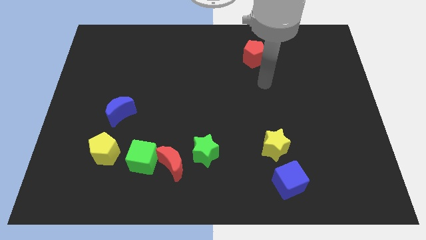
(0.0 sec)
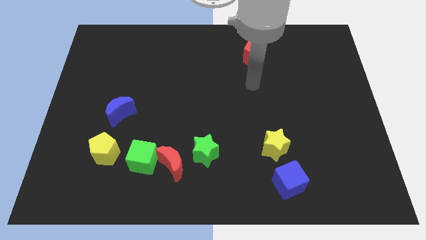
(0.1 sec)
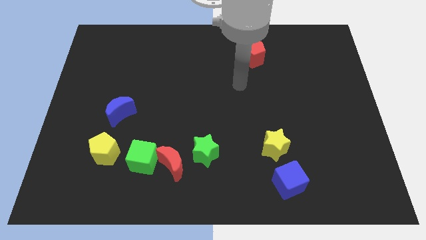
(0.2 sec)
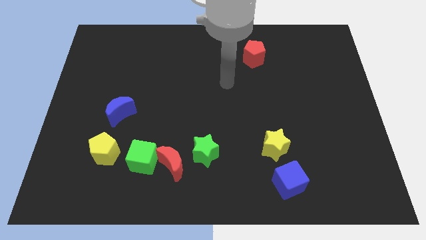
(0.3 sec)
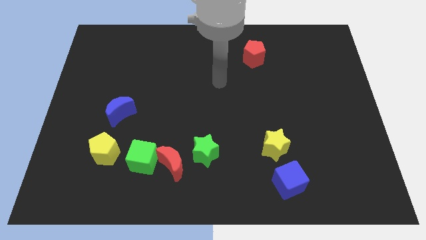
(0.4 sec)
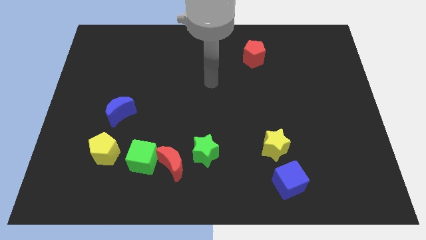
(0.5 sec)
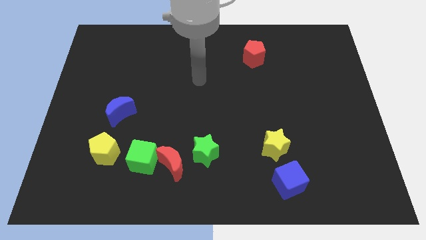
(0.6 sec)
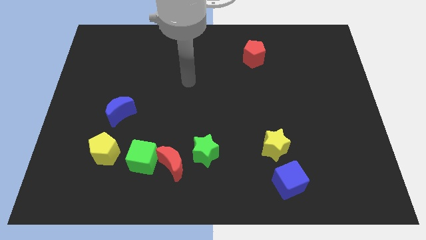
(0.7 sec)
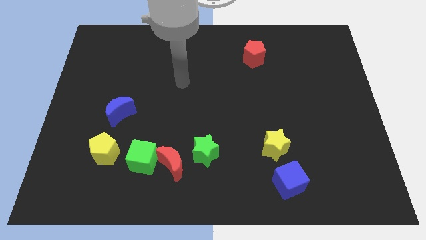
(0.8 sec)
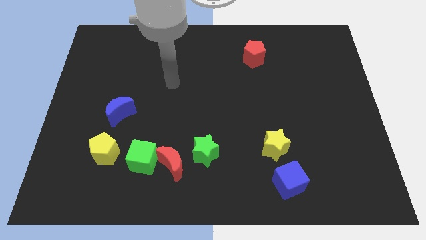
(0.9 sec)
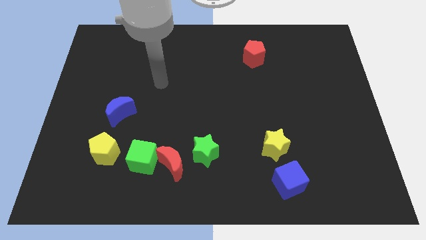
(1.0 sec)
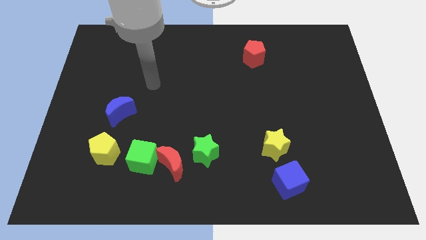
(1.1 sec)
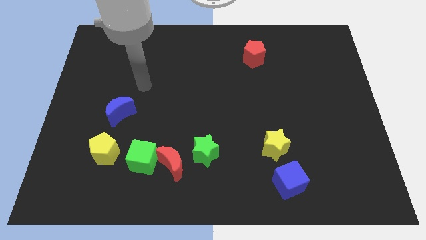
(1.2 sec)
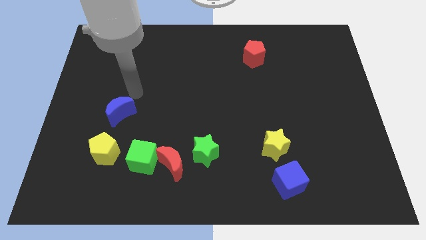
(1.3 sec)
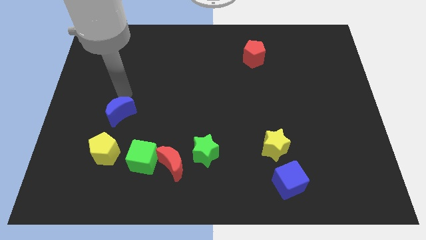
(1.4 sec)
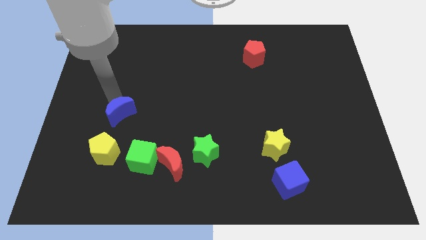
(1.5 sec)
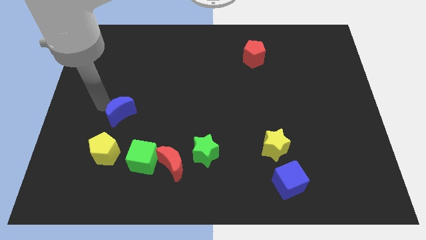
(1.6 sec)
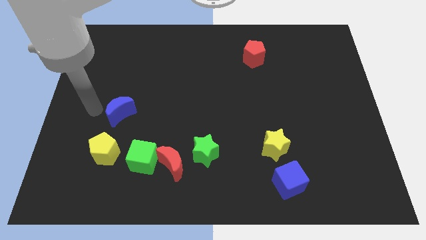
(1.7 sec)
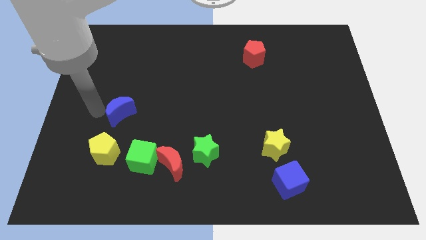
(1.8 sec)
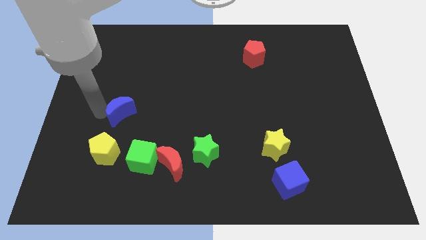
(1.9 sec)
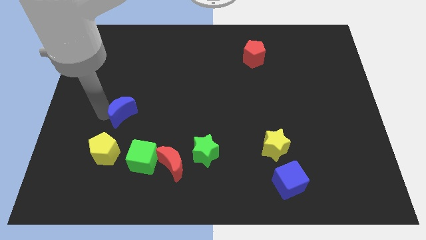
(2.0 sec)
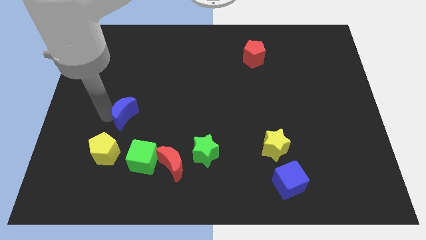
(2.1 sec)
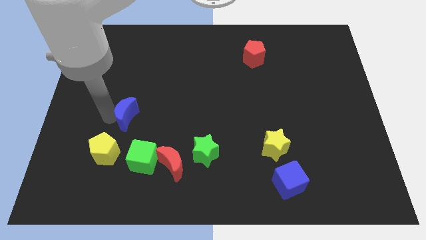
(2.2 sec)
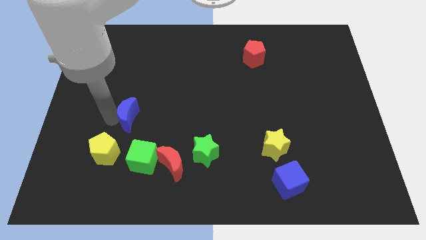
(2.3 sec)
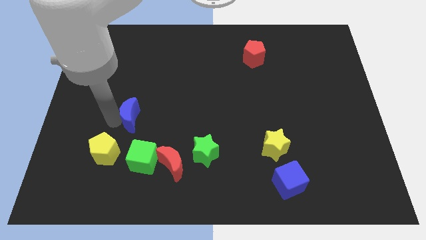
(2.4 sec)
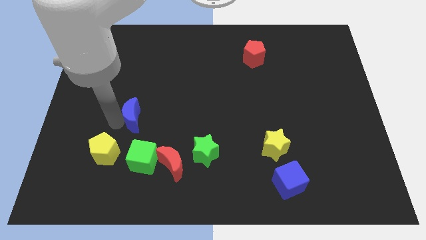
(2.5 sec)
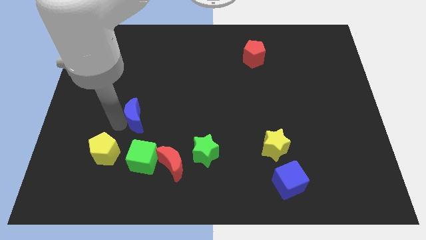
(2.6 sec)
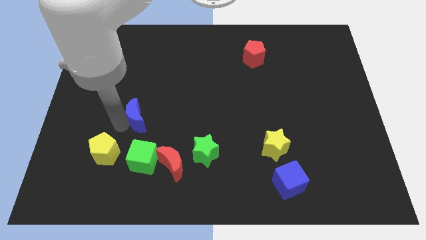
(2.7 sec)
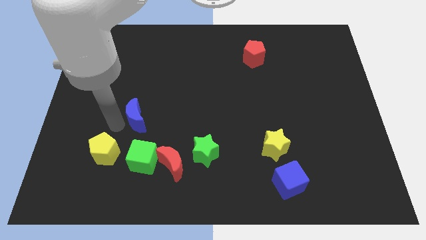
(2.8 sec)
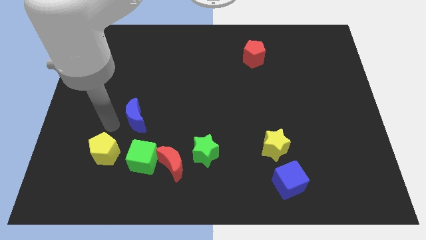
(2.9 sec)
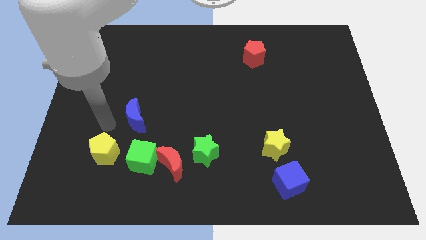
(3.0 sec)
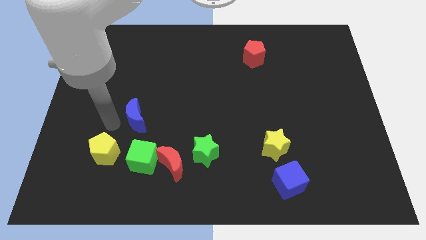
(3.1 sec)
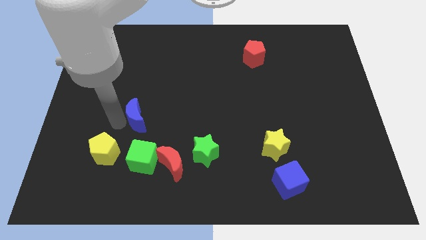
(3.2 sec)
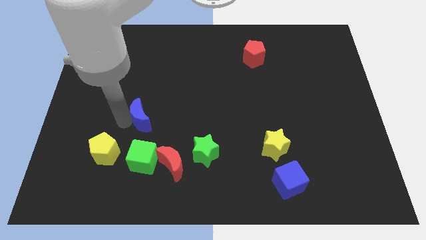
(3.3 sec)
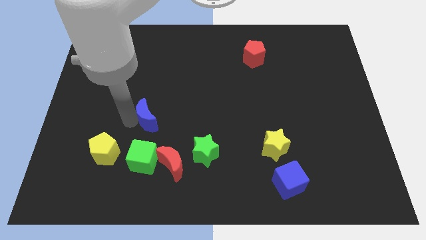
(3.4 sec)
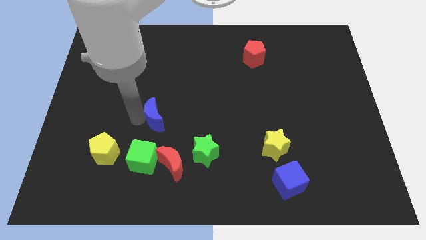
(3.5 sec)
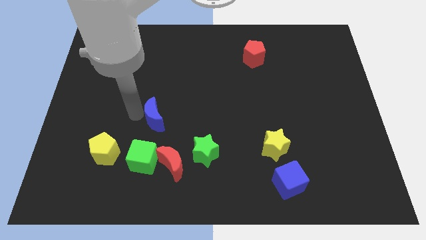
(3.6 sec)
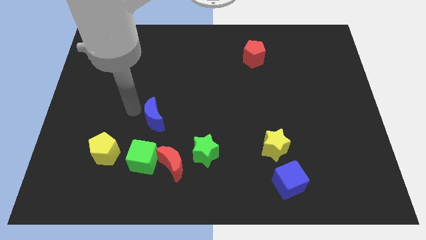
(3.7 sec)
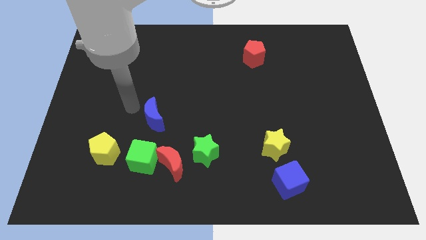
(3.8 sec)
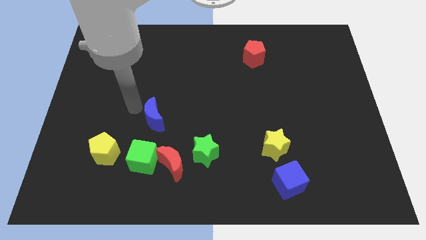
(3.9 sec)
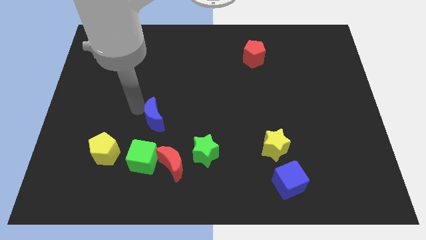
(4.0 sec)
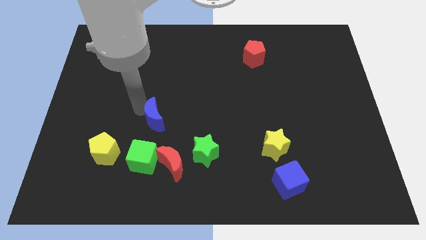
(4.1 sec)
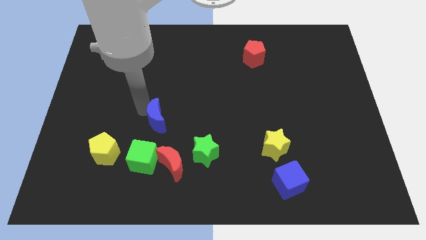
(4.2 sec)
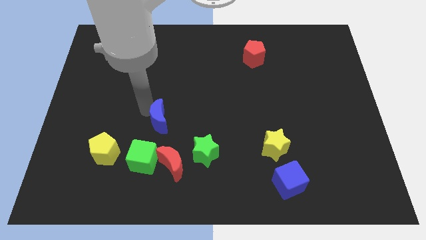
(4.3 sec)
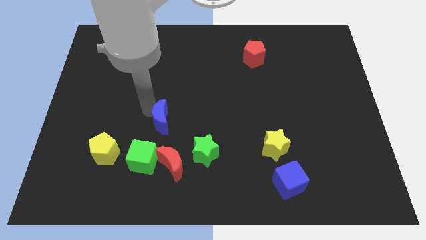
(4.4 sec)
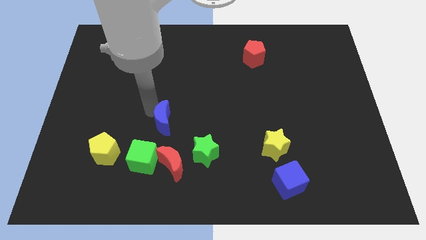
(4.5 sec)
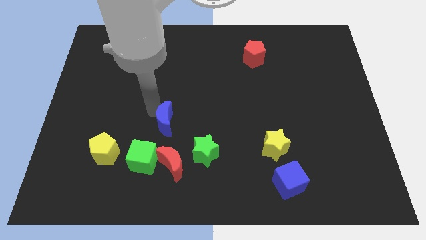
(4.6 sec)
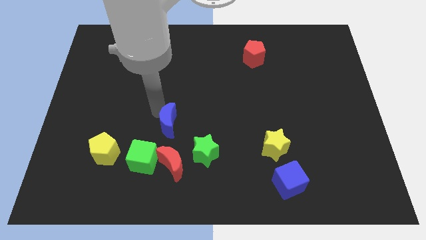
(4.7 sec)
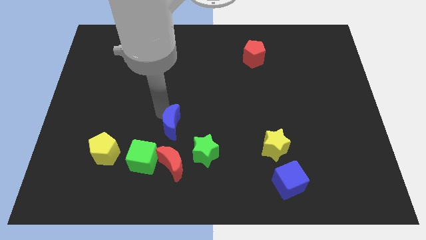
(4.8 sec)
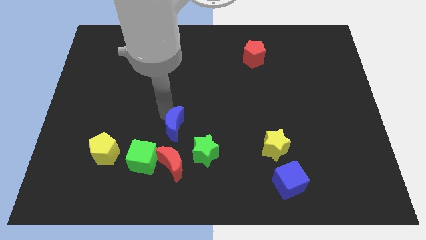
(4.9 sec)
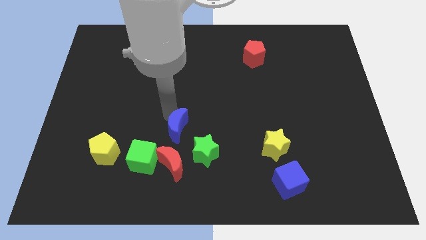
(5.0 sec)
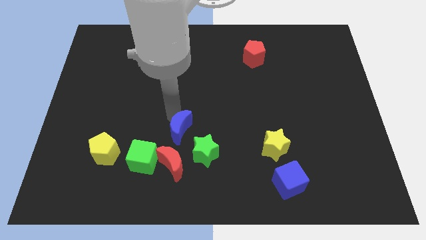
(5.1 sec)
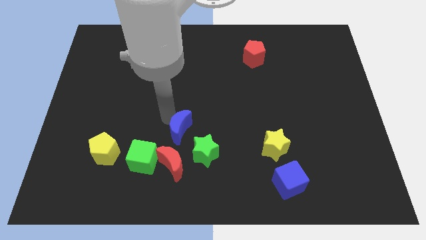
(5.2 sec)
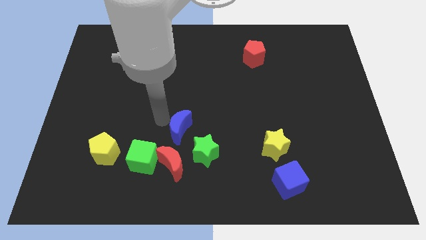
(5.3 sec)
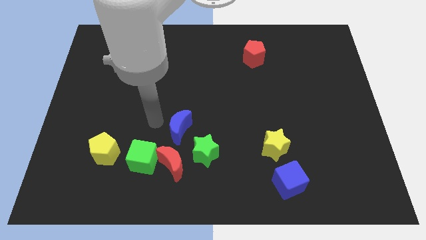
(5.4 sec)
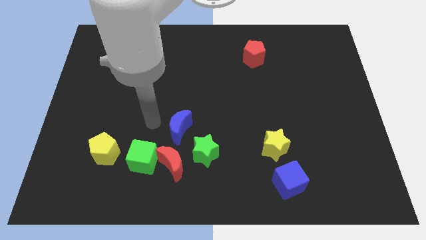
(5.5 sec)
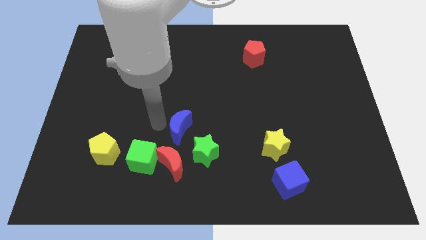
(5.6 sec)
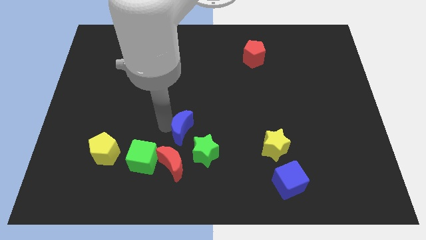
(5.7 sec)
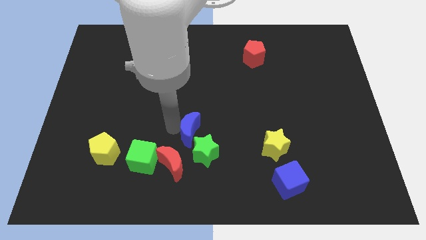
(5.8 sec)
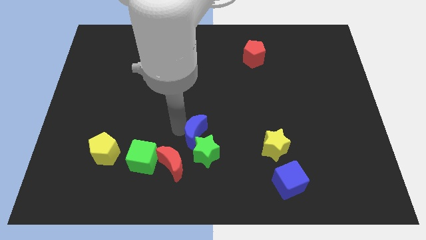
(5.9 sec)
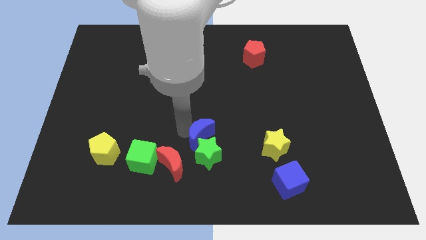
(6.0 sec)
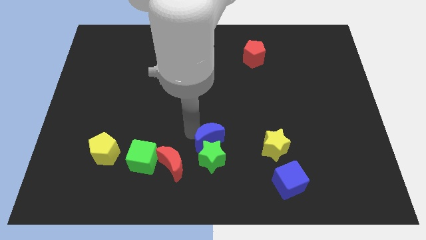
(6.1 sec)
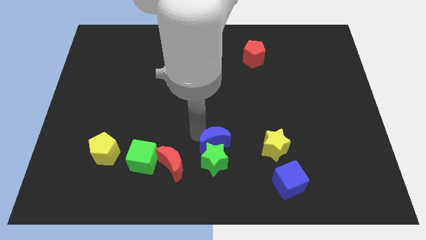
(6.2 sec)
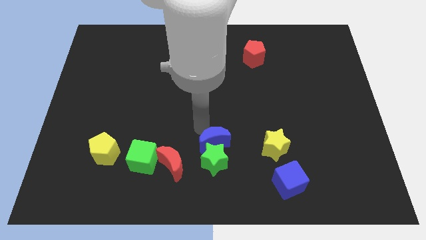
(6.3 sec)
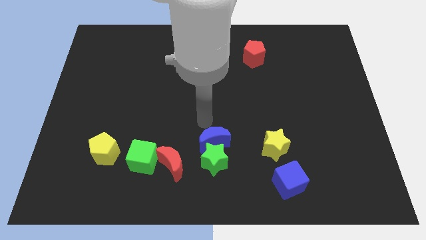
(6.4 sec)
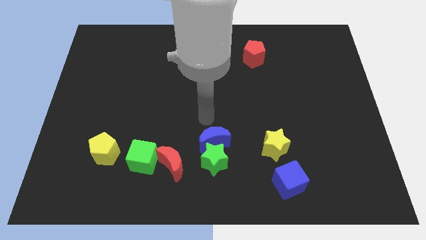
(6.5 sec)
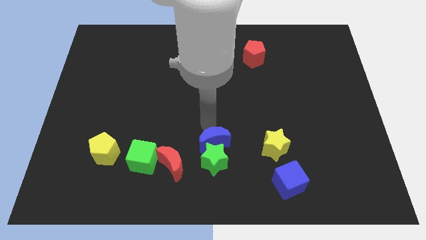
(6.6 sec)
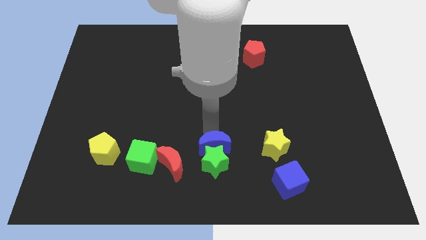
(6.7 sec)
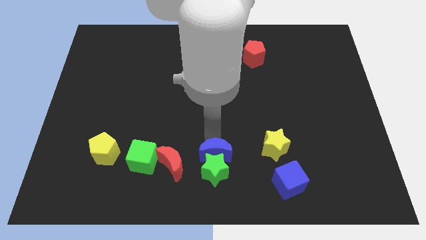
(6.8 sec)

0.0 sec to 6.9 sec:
slide the blue moon to the bottom side
